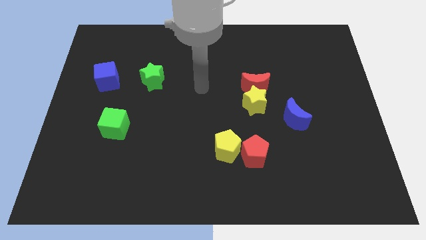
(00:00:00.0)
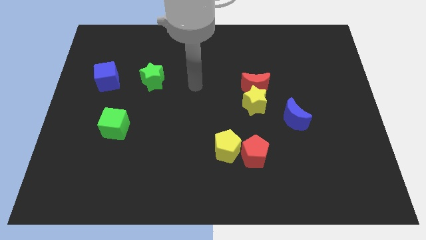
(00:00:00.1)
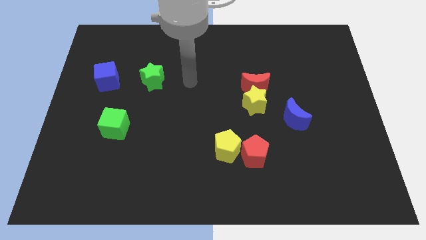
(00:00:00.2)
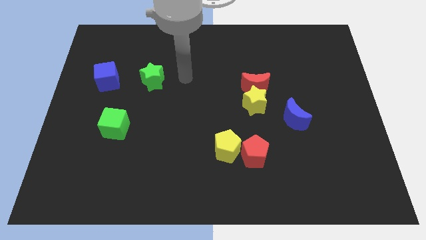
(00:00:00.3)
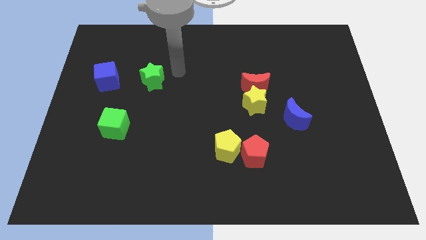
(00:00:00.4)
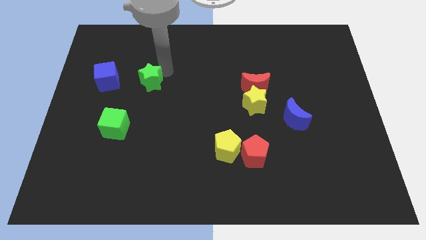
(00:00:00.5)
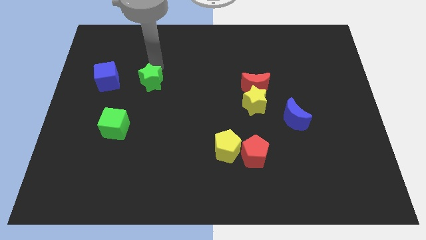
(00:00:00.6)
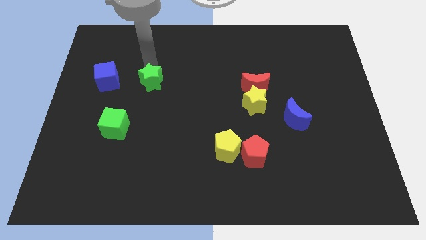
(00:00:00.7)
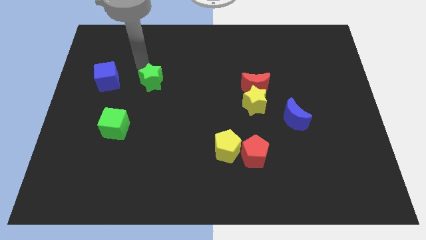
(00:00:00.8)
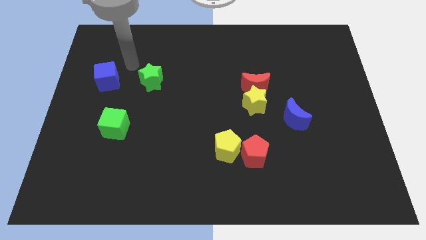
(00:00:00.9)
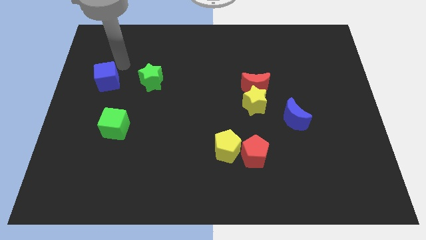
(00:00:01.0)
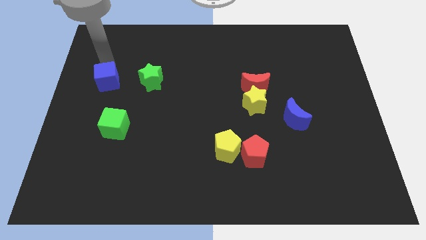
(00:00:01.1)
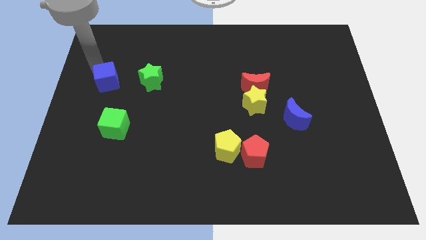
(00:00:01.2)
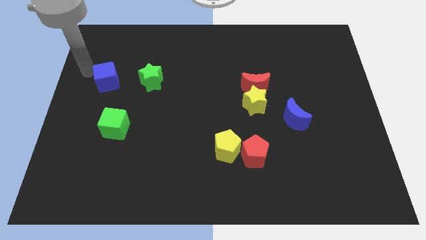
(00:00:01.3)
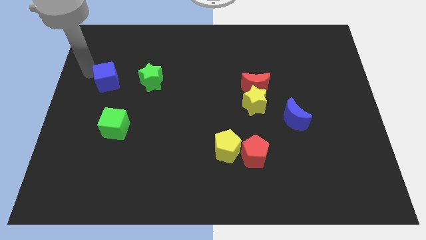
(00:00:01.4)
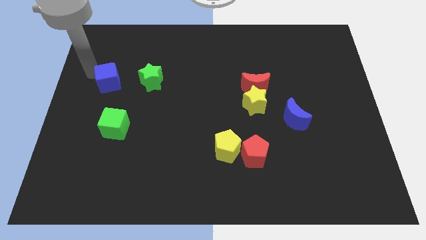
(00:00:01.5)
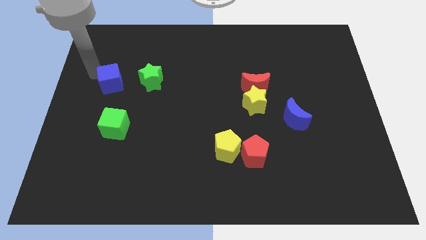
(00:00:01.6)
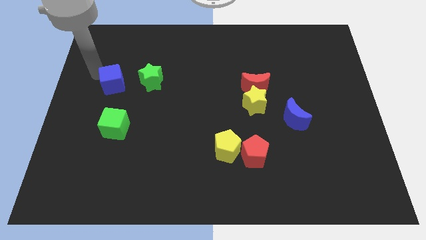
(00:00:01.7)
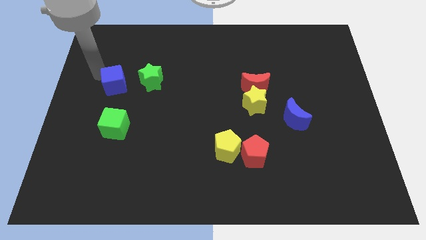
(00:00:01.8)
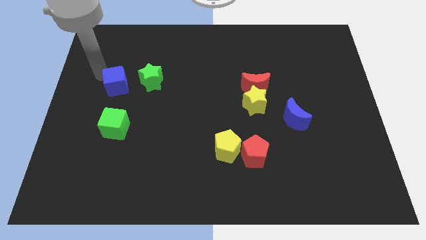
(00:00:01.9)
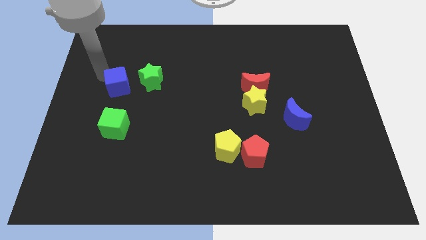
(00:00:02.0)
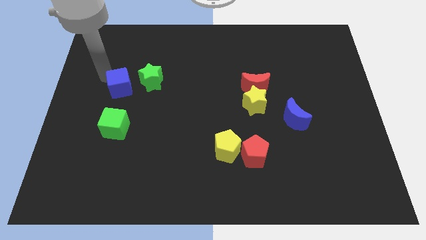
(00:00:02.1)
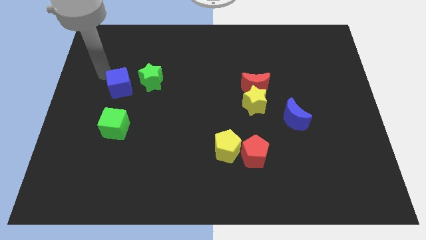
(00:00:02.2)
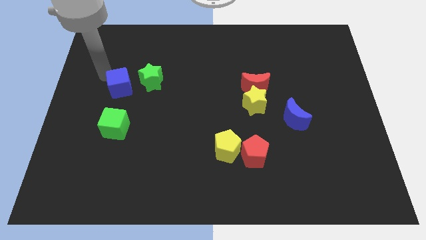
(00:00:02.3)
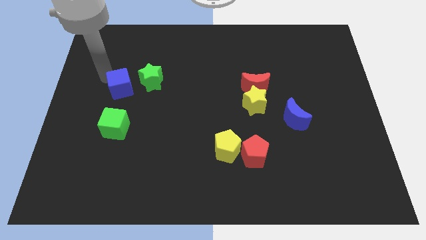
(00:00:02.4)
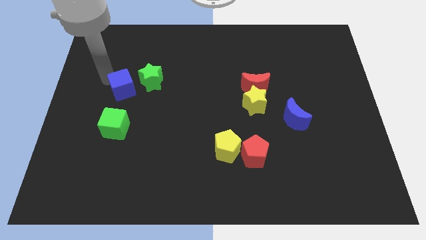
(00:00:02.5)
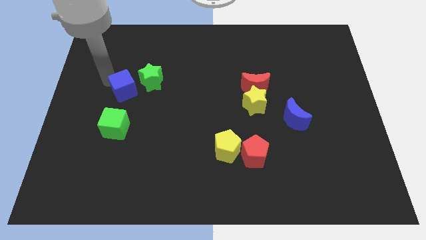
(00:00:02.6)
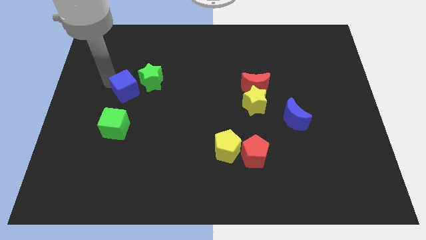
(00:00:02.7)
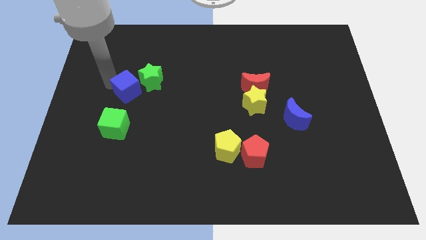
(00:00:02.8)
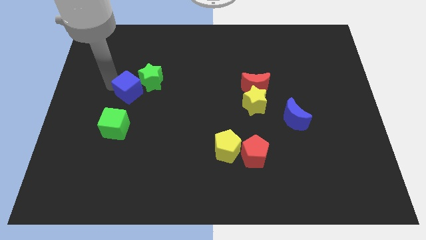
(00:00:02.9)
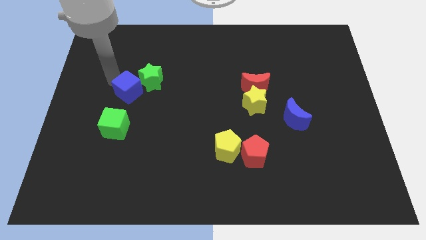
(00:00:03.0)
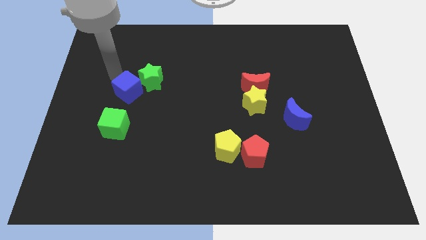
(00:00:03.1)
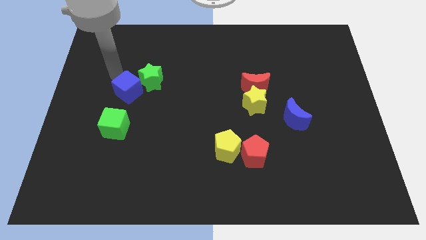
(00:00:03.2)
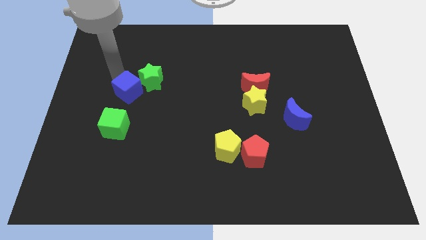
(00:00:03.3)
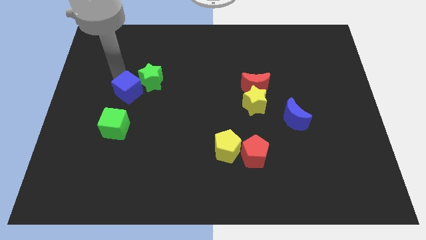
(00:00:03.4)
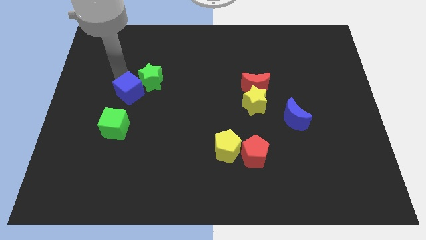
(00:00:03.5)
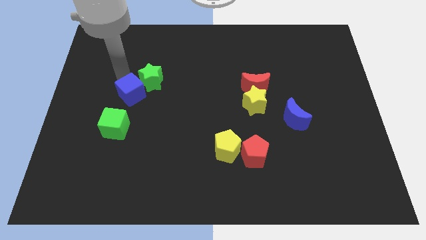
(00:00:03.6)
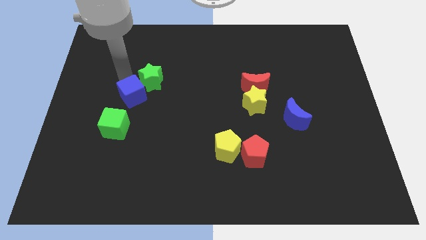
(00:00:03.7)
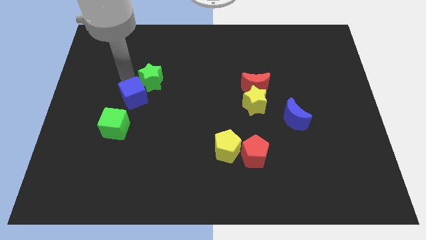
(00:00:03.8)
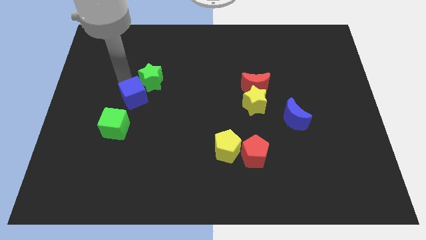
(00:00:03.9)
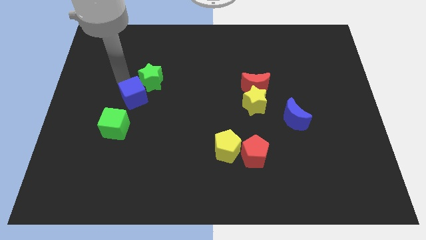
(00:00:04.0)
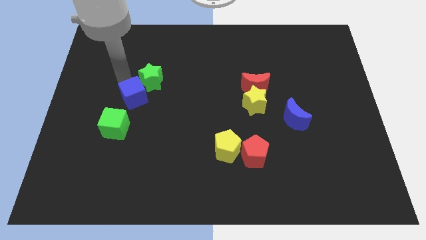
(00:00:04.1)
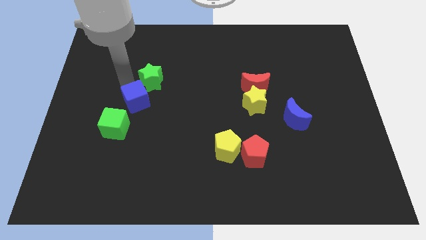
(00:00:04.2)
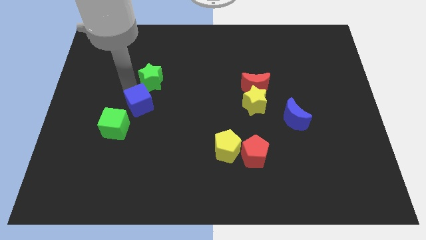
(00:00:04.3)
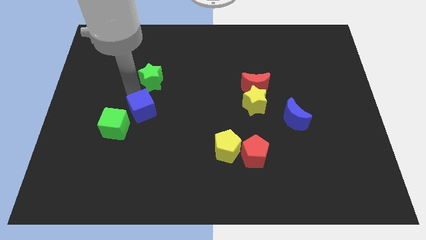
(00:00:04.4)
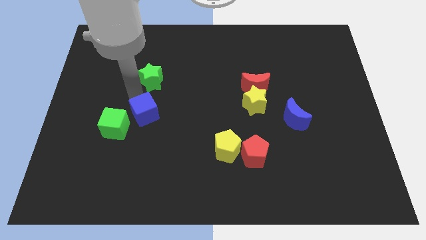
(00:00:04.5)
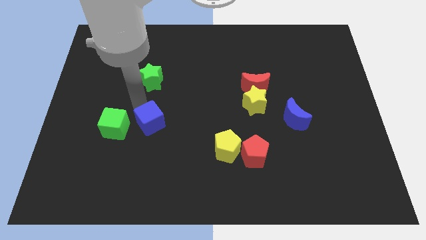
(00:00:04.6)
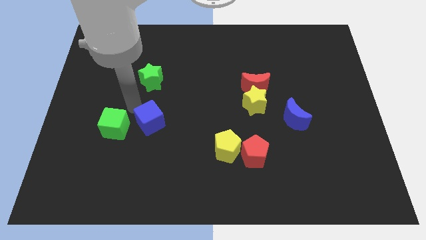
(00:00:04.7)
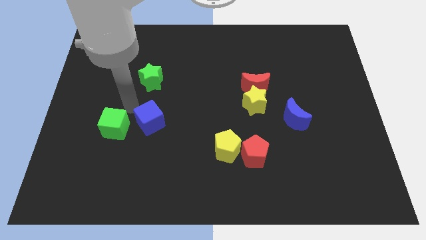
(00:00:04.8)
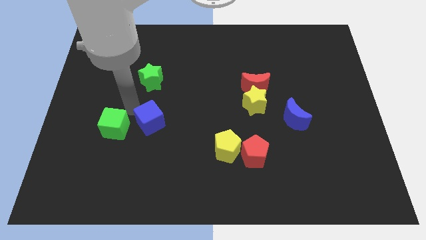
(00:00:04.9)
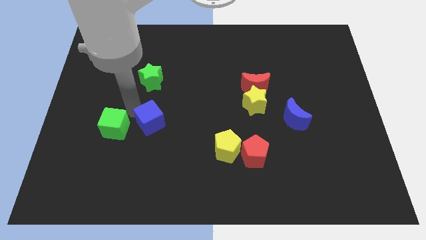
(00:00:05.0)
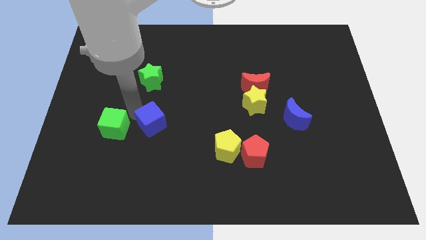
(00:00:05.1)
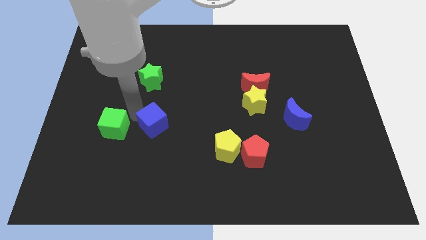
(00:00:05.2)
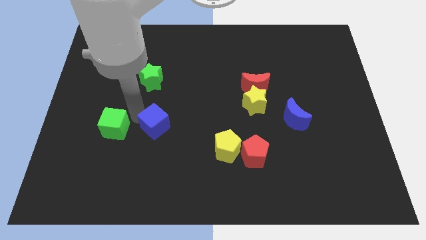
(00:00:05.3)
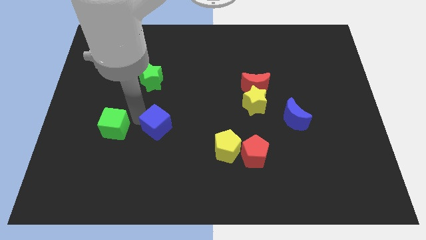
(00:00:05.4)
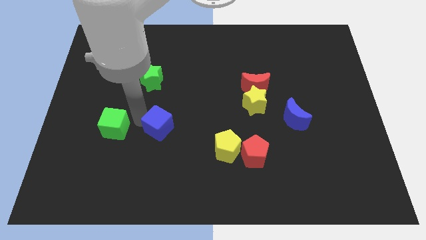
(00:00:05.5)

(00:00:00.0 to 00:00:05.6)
push the blue cube downwards and to the right

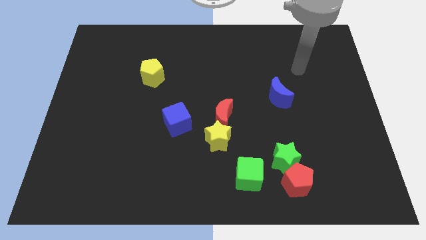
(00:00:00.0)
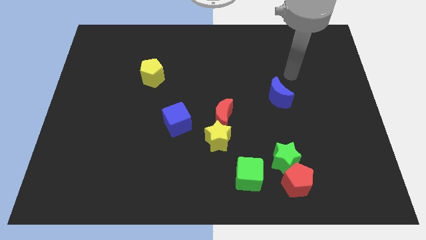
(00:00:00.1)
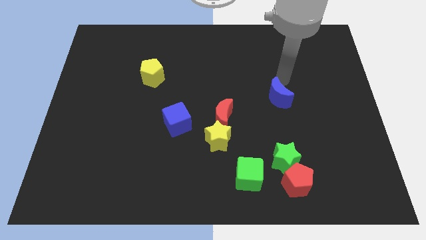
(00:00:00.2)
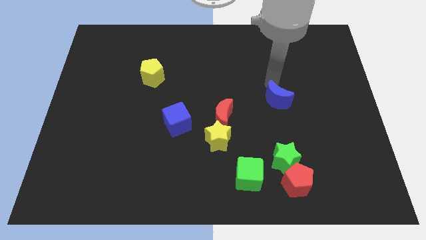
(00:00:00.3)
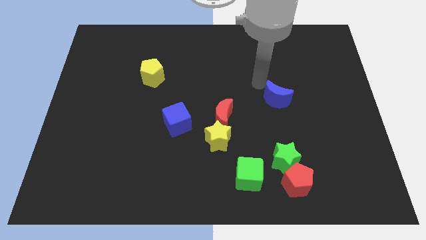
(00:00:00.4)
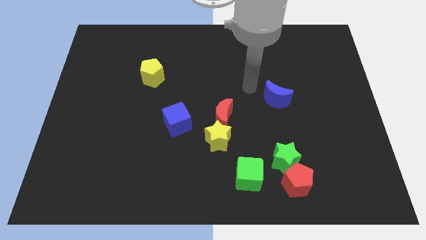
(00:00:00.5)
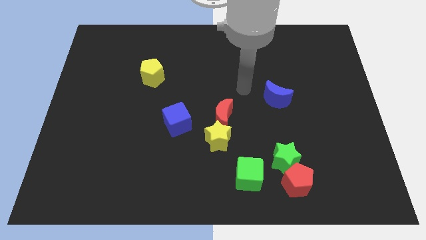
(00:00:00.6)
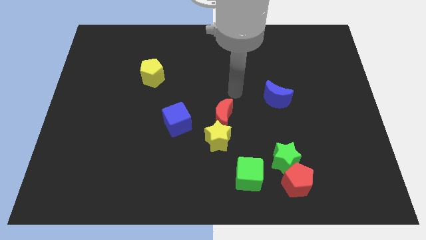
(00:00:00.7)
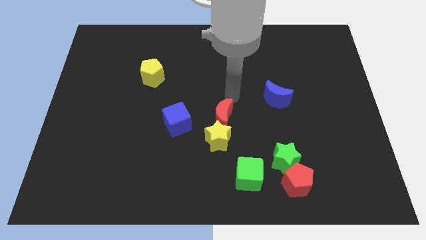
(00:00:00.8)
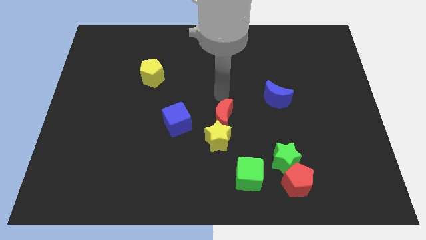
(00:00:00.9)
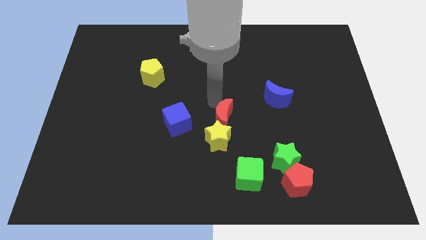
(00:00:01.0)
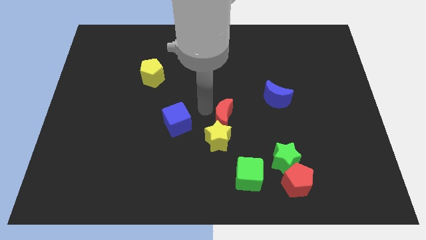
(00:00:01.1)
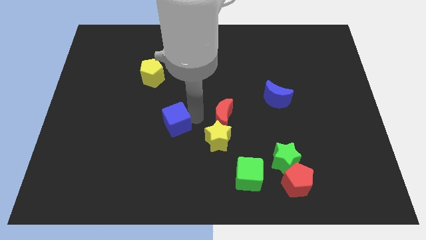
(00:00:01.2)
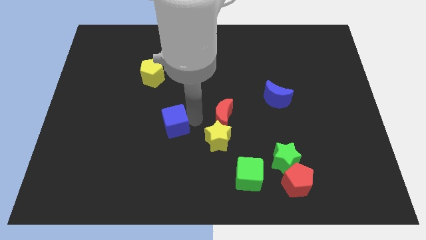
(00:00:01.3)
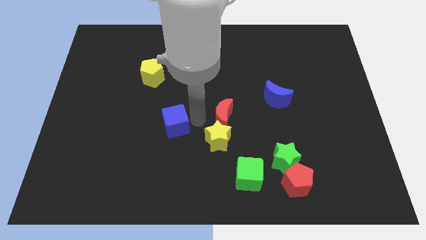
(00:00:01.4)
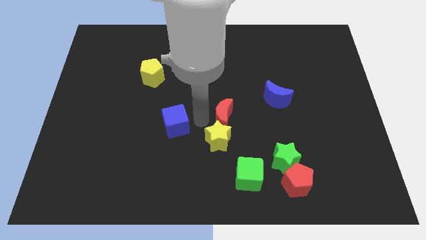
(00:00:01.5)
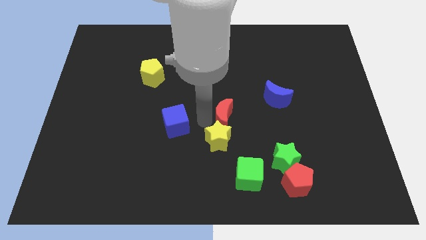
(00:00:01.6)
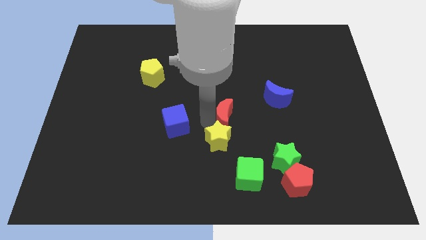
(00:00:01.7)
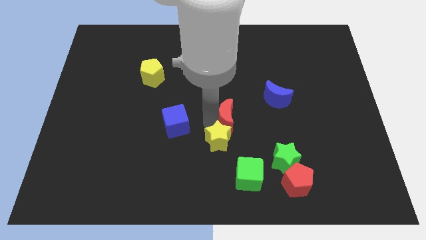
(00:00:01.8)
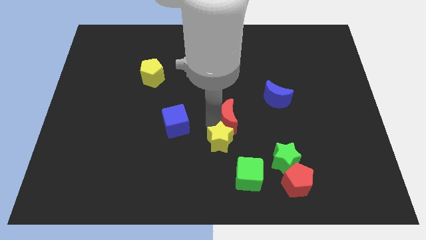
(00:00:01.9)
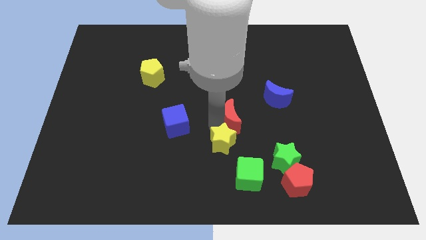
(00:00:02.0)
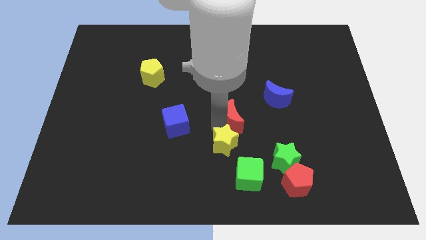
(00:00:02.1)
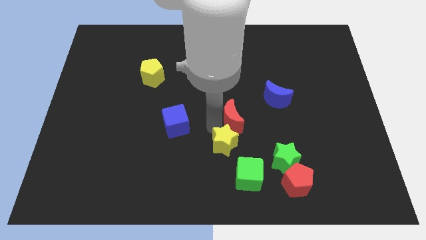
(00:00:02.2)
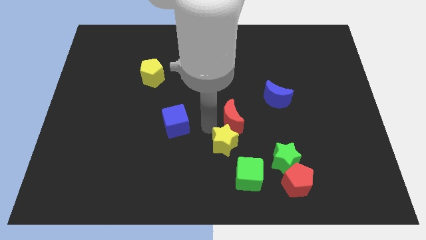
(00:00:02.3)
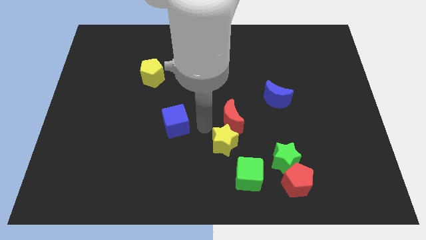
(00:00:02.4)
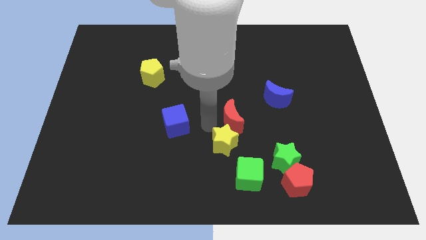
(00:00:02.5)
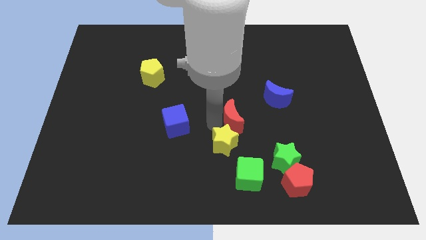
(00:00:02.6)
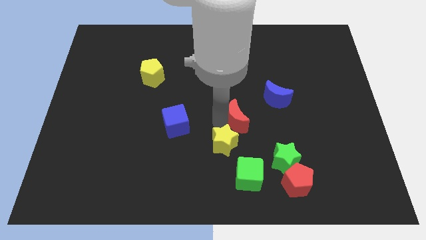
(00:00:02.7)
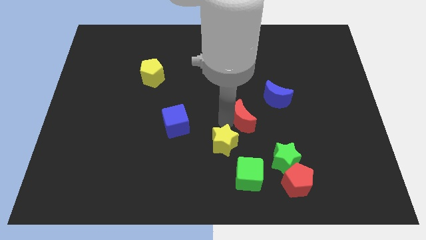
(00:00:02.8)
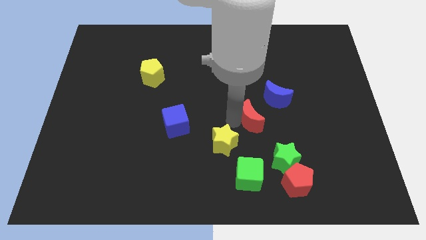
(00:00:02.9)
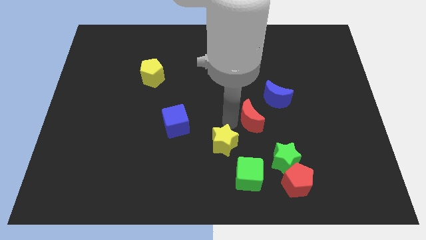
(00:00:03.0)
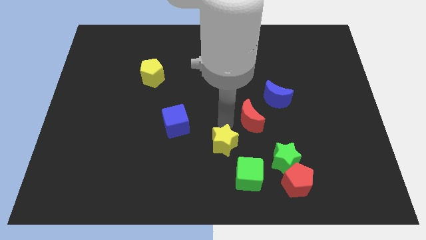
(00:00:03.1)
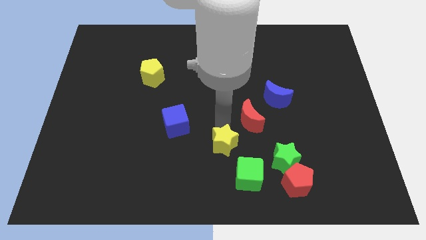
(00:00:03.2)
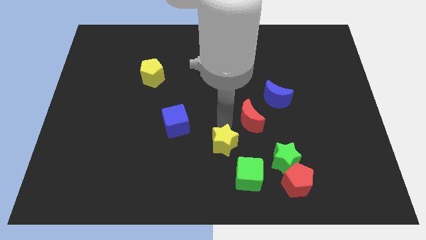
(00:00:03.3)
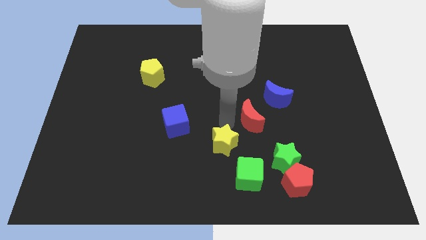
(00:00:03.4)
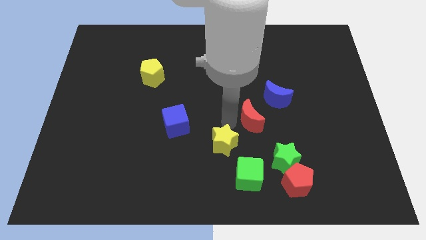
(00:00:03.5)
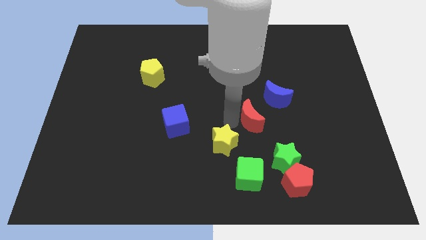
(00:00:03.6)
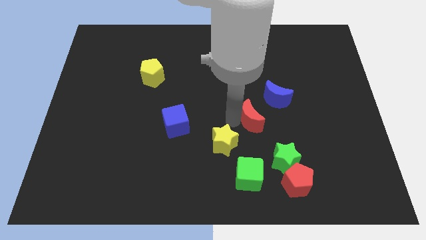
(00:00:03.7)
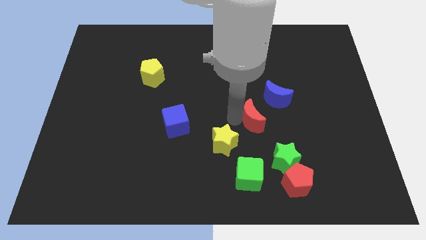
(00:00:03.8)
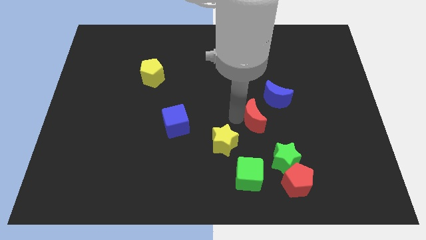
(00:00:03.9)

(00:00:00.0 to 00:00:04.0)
slide the red moon right a little bit
